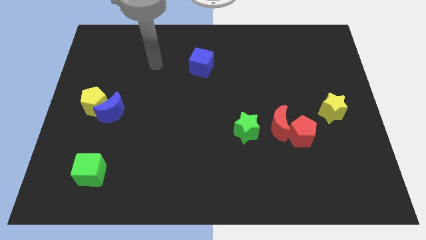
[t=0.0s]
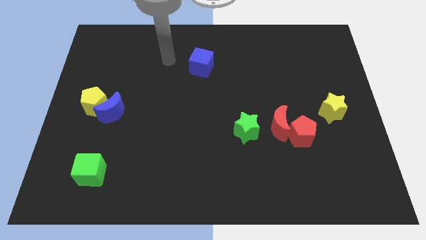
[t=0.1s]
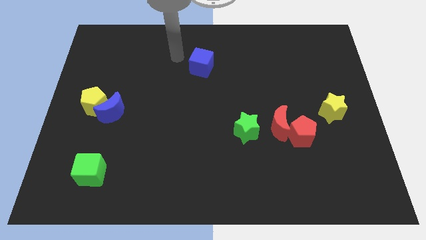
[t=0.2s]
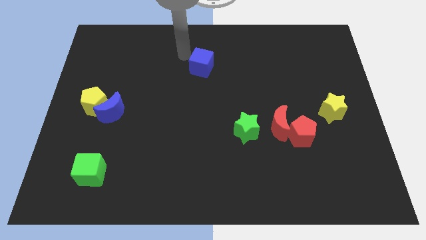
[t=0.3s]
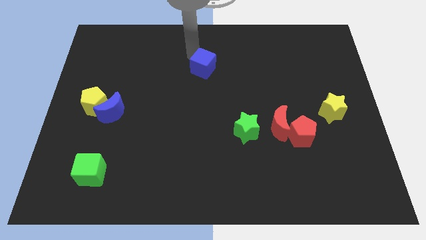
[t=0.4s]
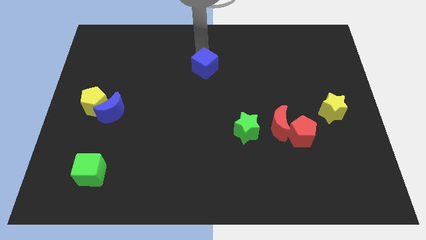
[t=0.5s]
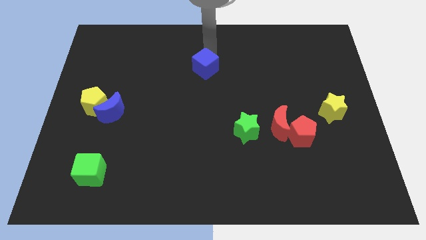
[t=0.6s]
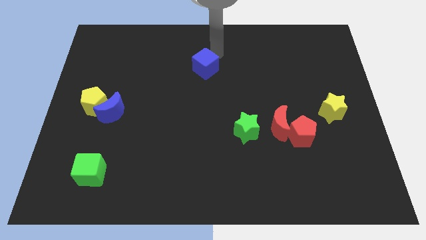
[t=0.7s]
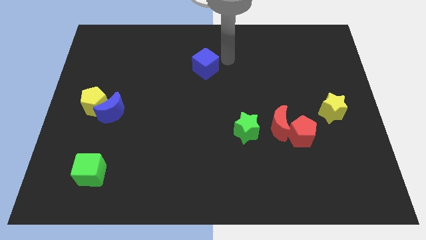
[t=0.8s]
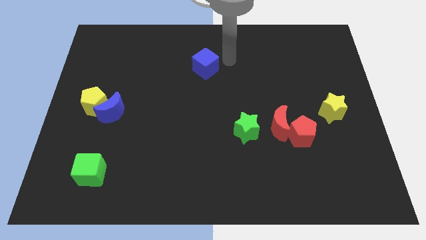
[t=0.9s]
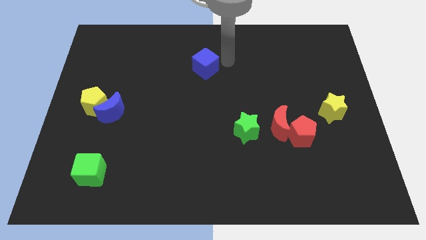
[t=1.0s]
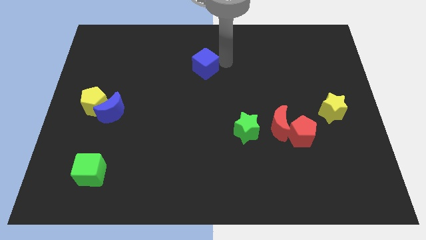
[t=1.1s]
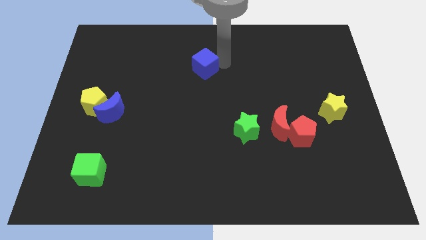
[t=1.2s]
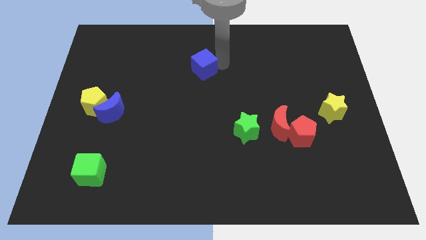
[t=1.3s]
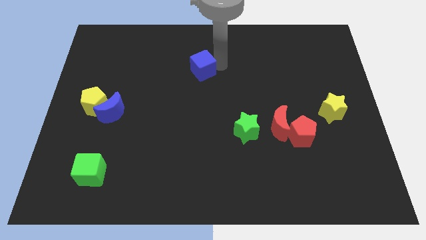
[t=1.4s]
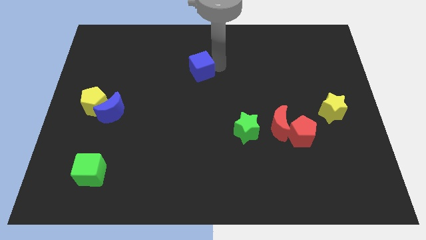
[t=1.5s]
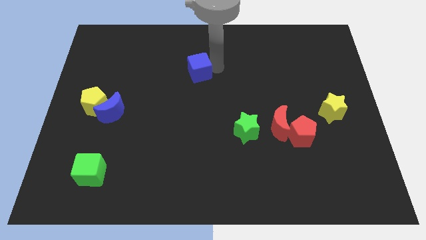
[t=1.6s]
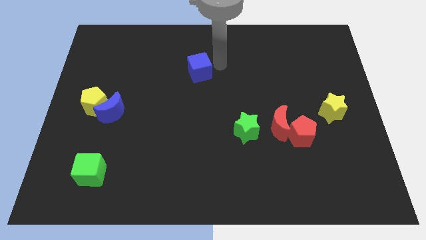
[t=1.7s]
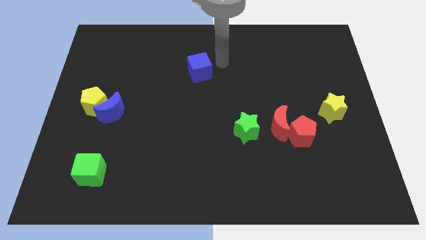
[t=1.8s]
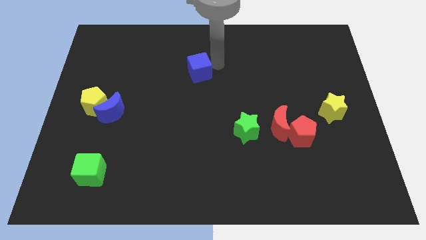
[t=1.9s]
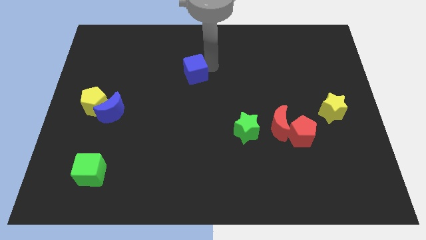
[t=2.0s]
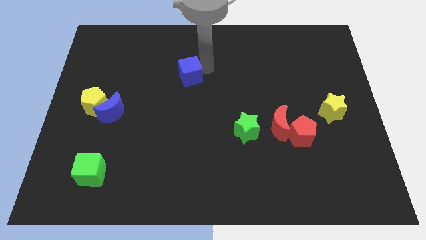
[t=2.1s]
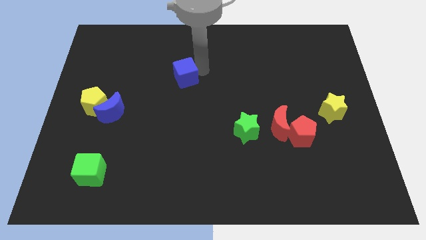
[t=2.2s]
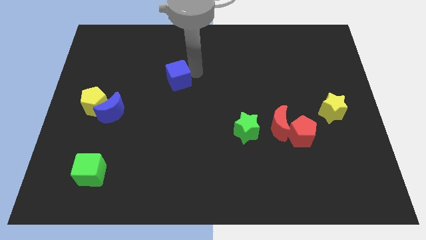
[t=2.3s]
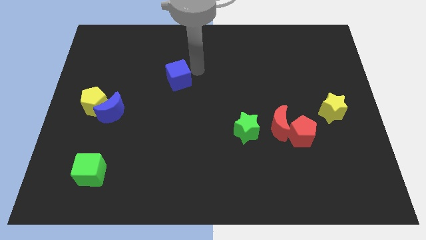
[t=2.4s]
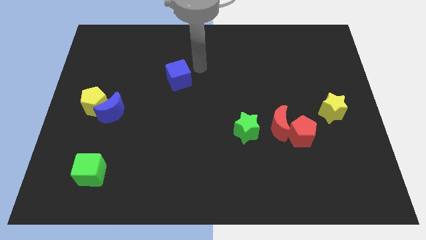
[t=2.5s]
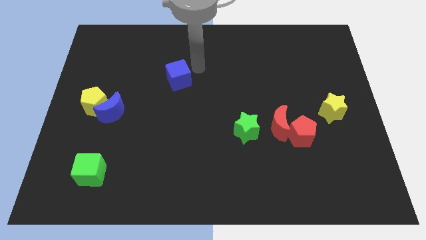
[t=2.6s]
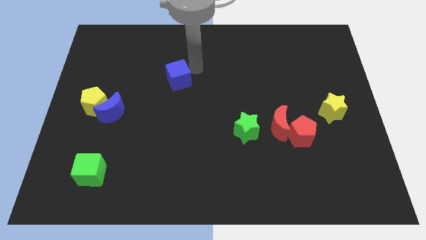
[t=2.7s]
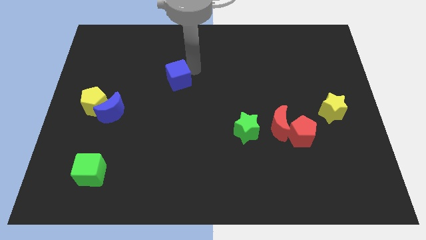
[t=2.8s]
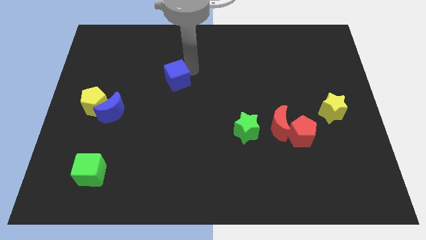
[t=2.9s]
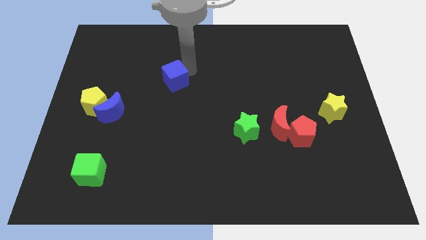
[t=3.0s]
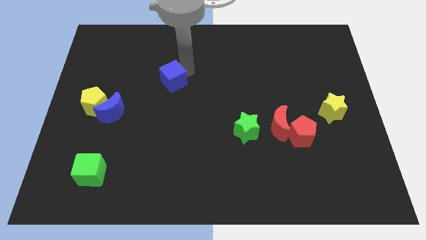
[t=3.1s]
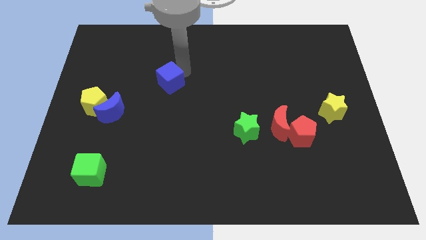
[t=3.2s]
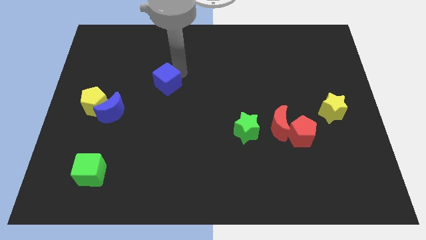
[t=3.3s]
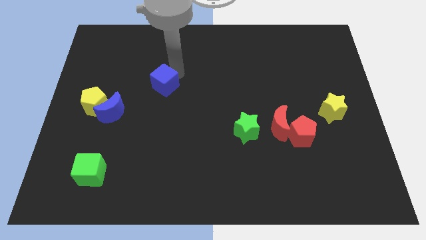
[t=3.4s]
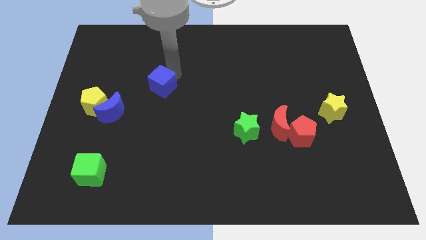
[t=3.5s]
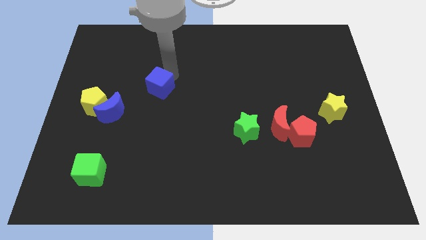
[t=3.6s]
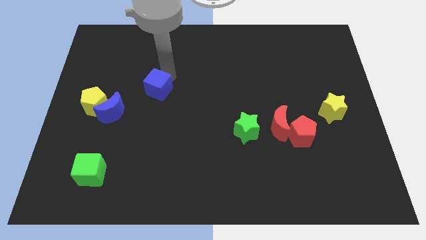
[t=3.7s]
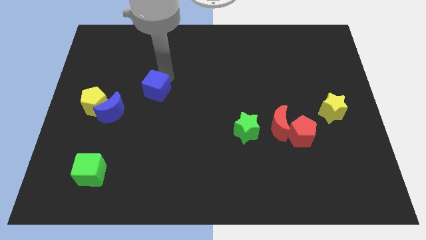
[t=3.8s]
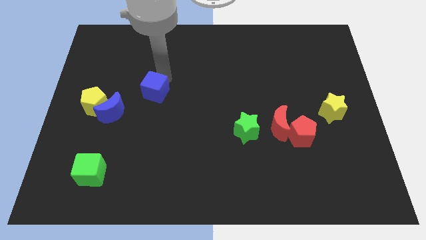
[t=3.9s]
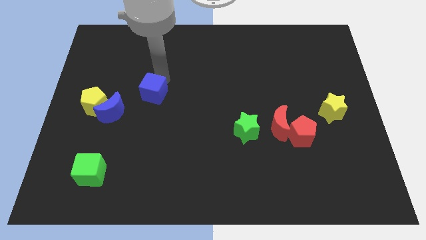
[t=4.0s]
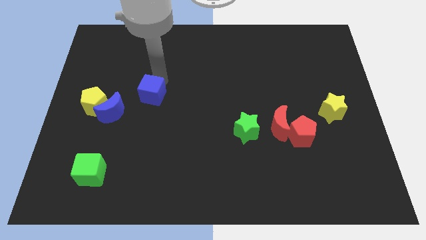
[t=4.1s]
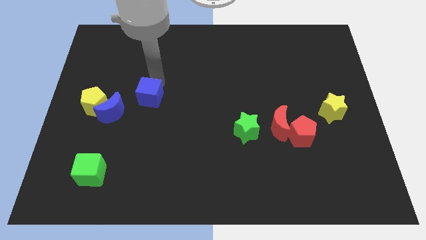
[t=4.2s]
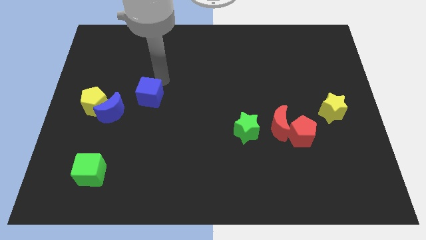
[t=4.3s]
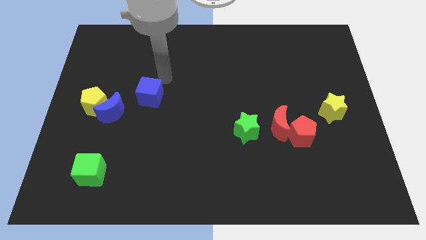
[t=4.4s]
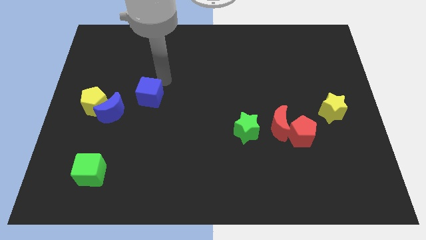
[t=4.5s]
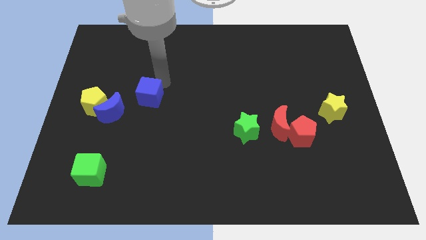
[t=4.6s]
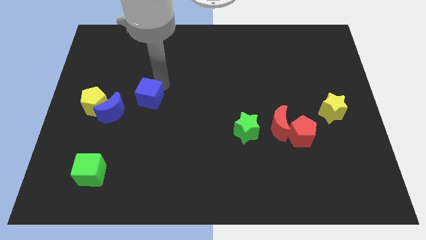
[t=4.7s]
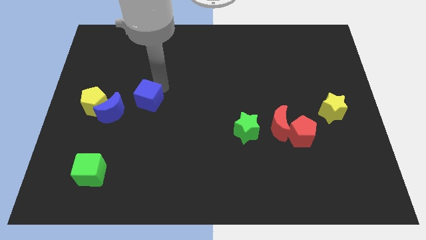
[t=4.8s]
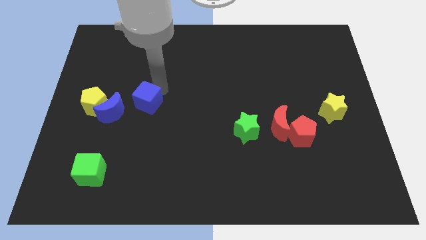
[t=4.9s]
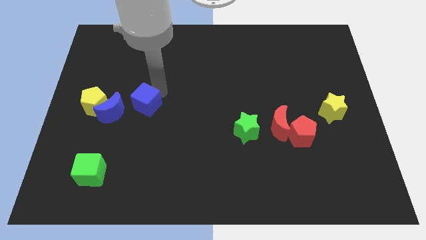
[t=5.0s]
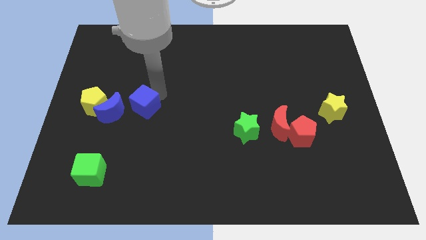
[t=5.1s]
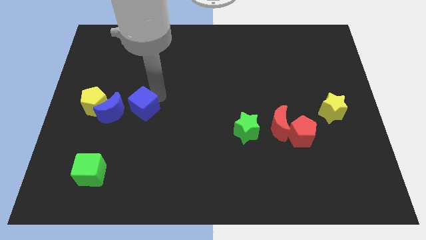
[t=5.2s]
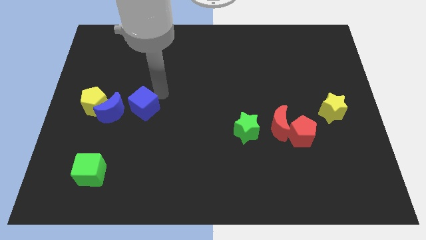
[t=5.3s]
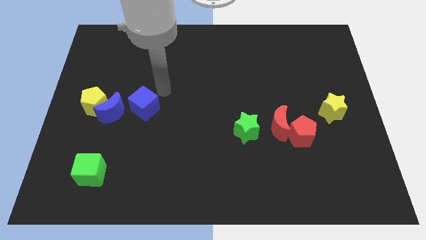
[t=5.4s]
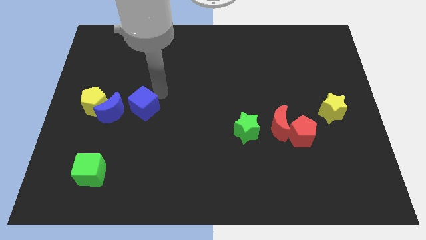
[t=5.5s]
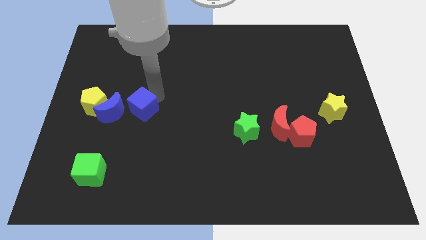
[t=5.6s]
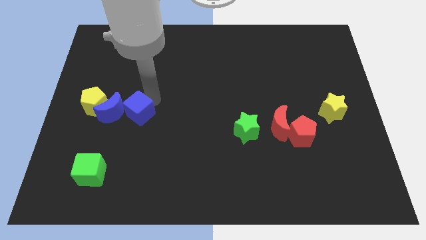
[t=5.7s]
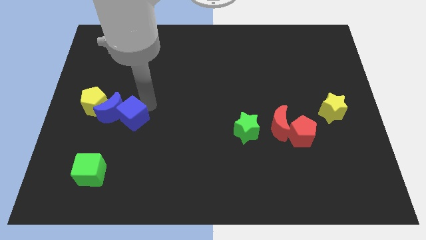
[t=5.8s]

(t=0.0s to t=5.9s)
push the blue cube to the bottom right of the yellow pentagon

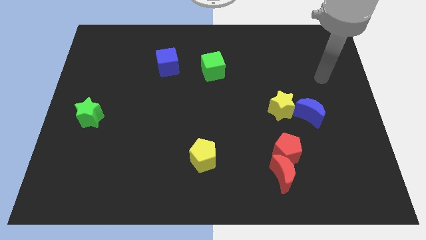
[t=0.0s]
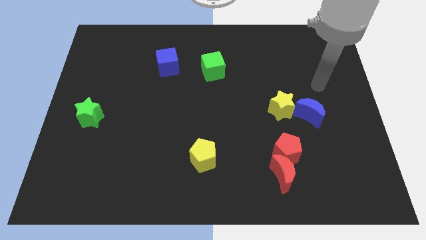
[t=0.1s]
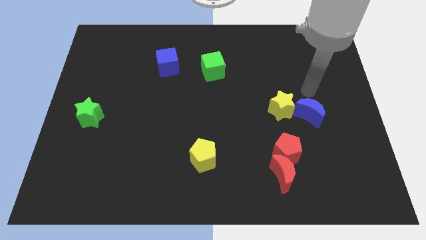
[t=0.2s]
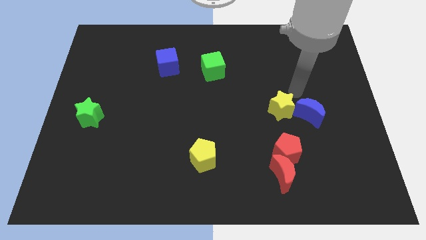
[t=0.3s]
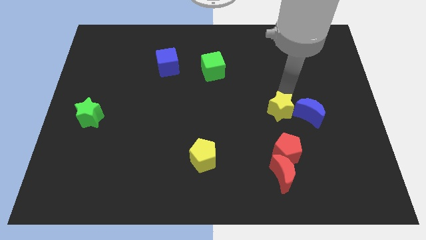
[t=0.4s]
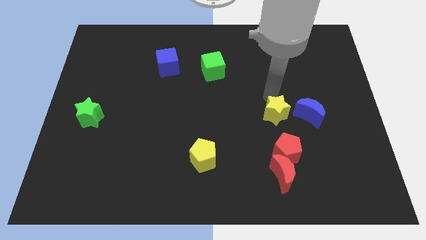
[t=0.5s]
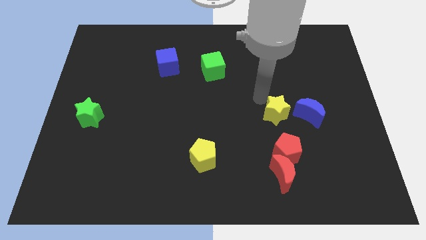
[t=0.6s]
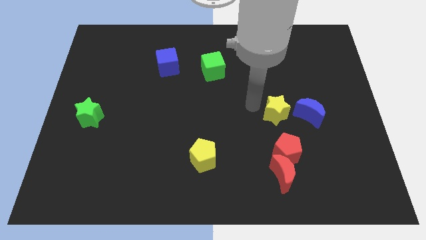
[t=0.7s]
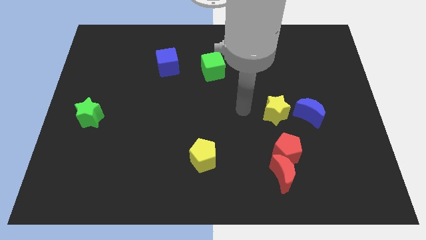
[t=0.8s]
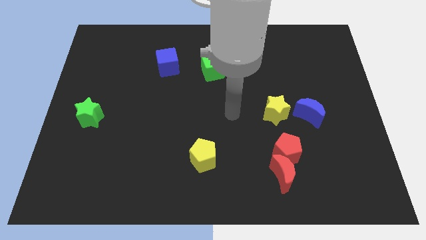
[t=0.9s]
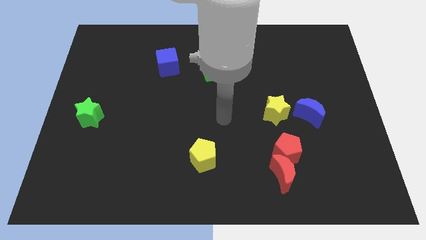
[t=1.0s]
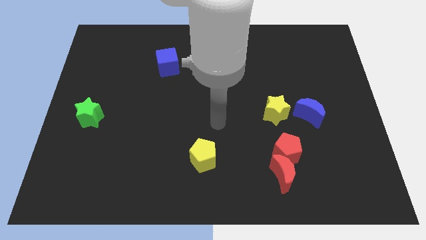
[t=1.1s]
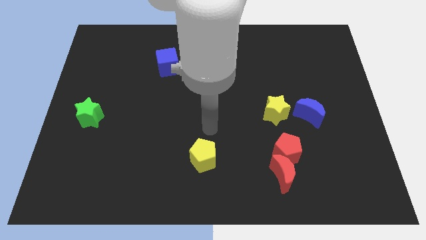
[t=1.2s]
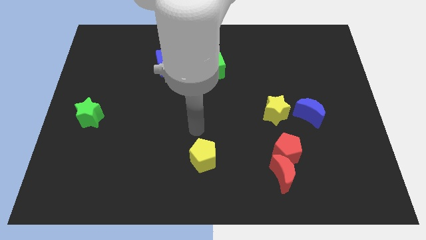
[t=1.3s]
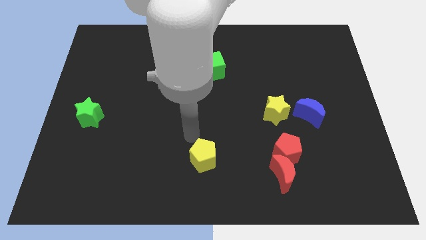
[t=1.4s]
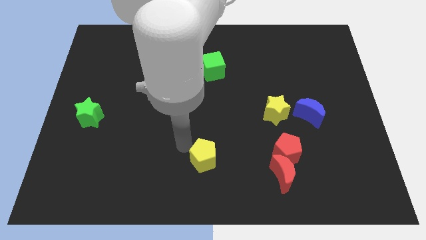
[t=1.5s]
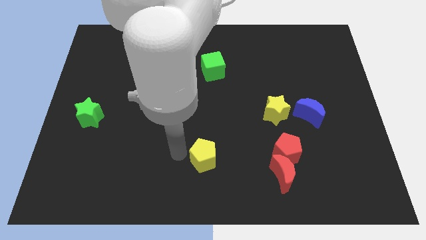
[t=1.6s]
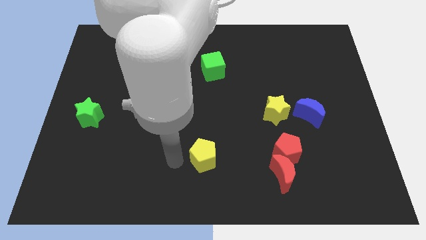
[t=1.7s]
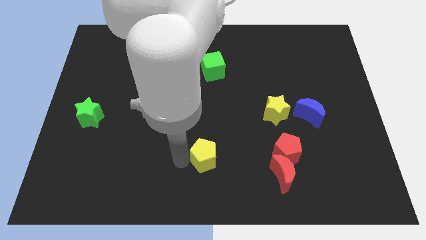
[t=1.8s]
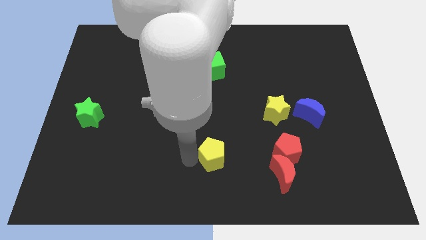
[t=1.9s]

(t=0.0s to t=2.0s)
move the yellow pentagon to the left side of the red pentagon
